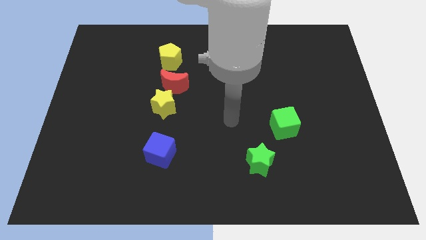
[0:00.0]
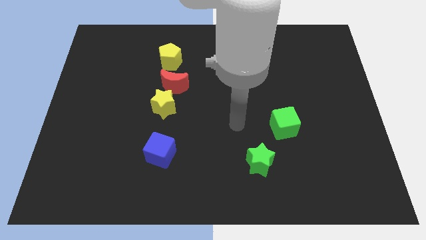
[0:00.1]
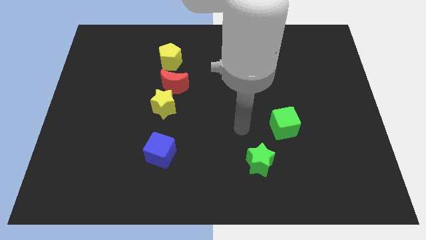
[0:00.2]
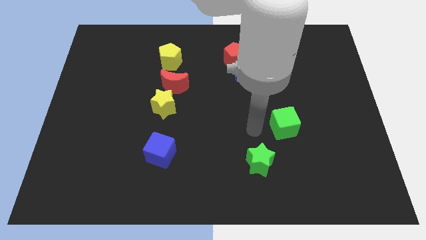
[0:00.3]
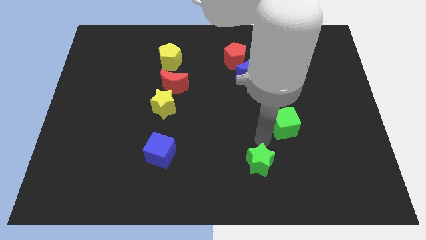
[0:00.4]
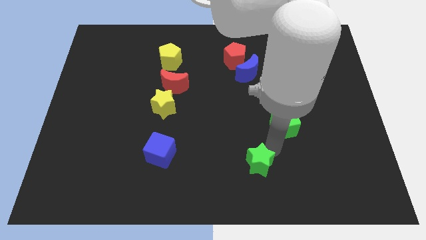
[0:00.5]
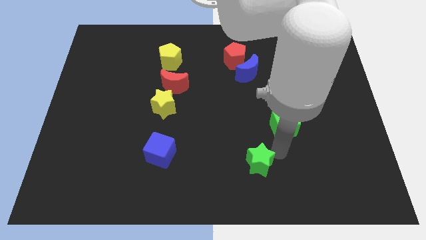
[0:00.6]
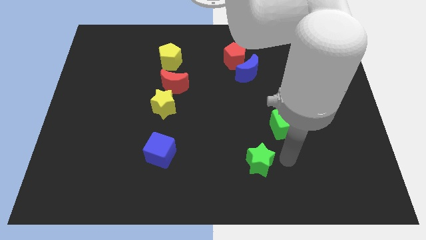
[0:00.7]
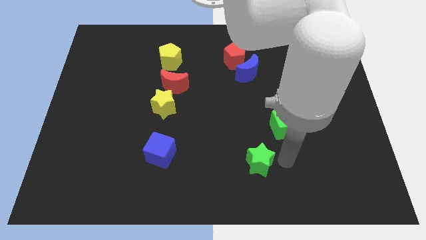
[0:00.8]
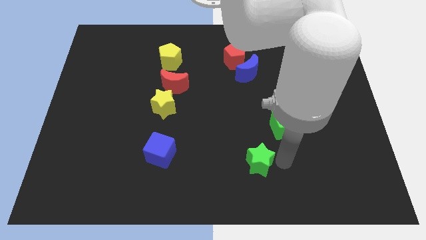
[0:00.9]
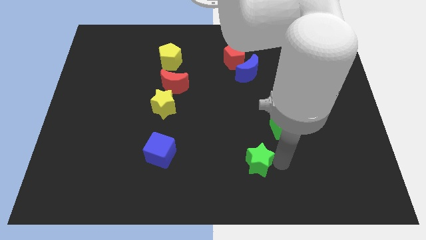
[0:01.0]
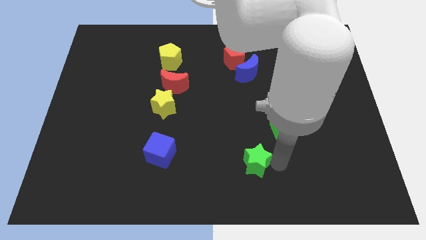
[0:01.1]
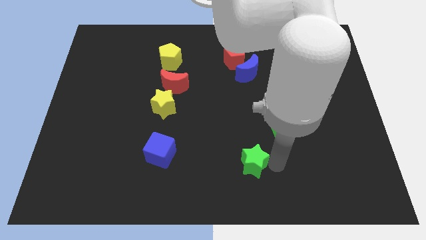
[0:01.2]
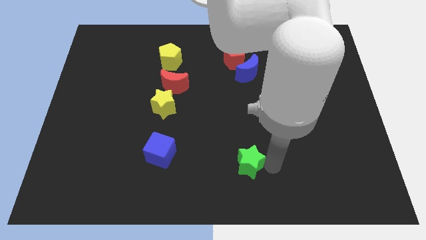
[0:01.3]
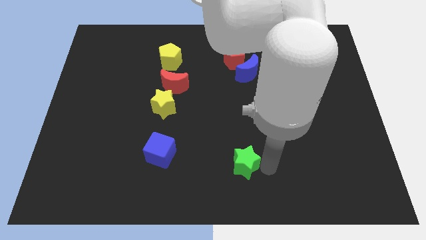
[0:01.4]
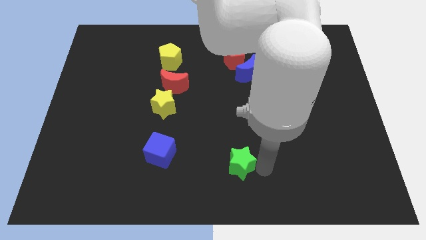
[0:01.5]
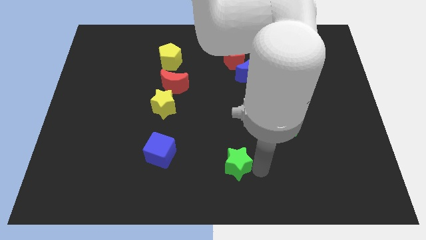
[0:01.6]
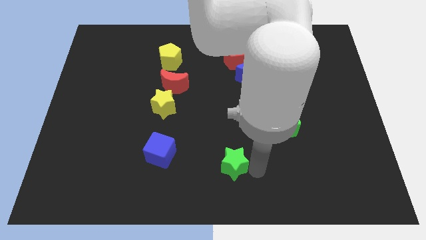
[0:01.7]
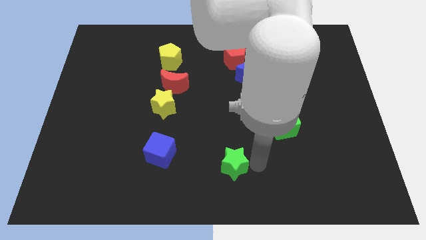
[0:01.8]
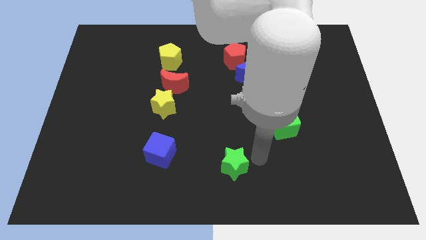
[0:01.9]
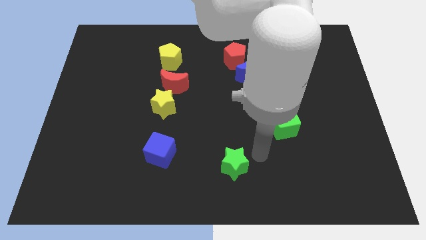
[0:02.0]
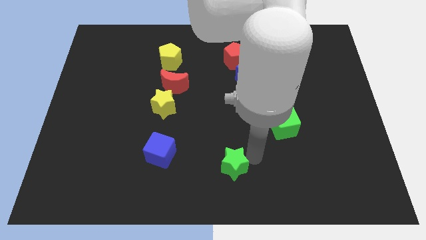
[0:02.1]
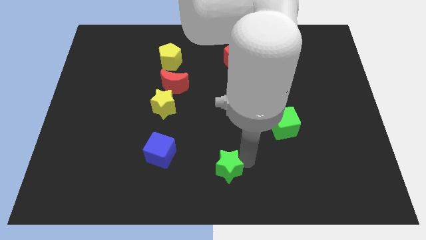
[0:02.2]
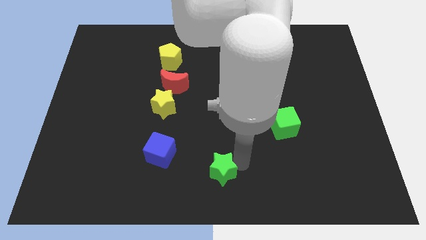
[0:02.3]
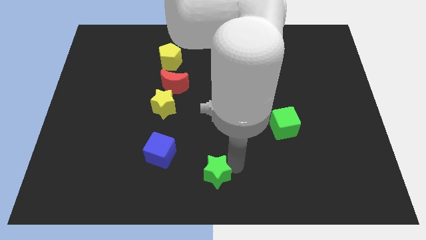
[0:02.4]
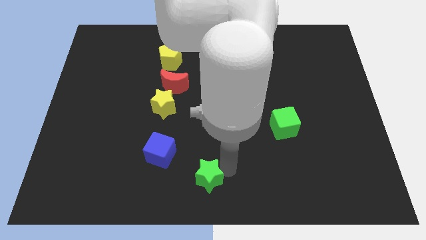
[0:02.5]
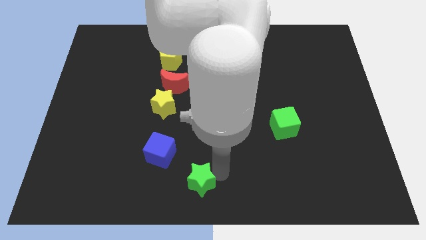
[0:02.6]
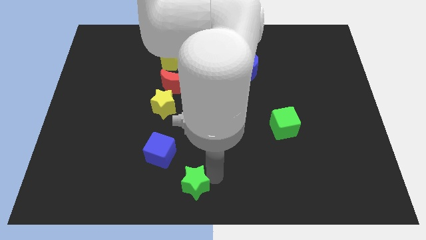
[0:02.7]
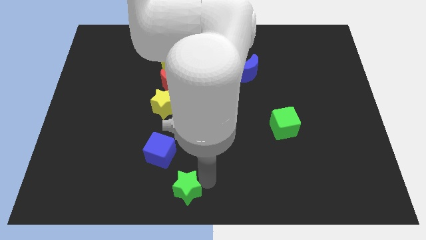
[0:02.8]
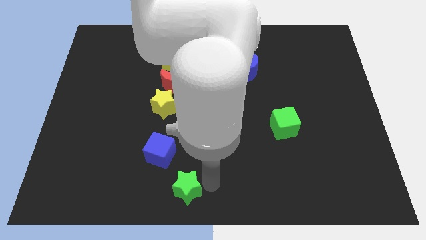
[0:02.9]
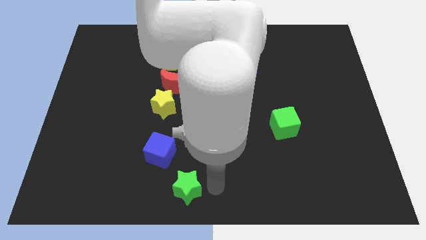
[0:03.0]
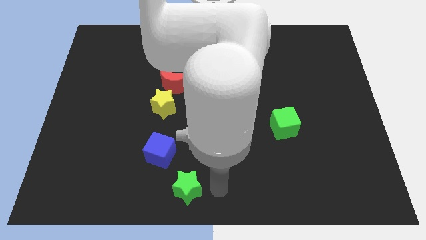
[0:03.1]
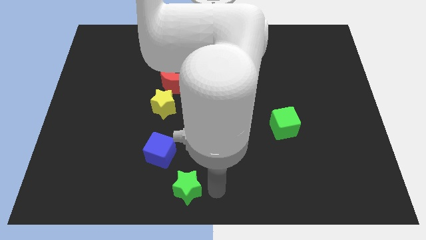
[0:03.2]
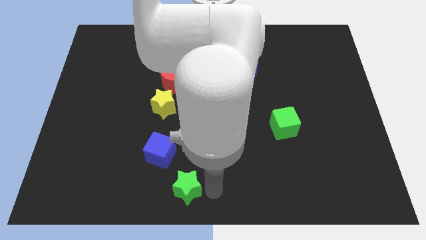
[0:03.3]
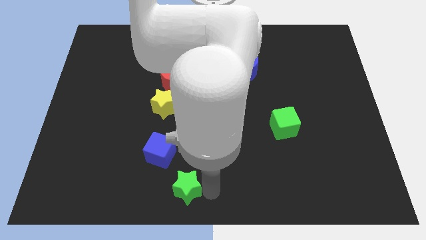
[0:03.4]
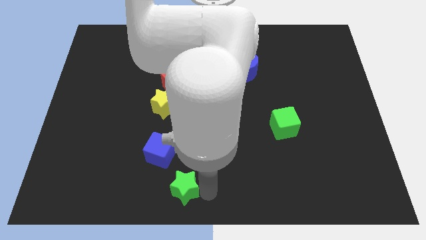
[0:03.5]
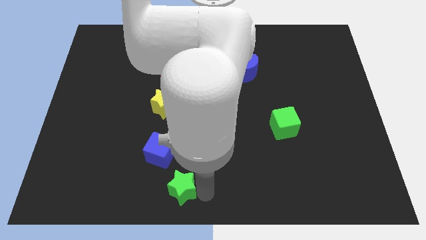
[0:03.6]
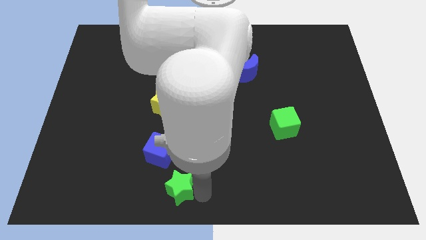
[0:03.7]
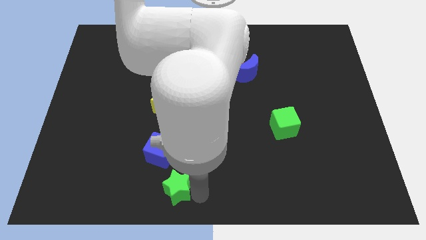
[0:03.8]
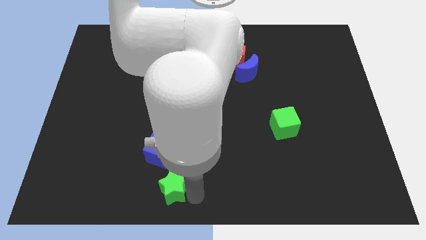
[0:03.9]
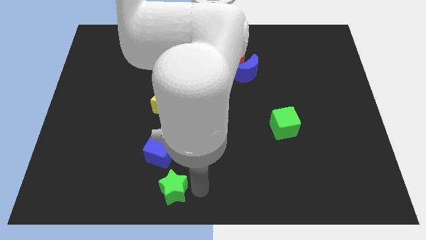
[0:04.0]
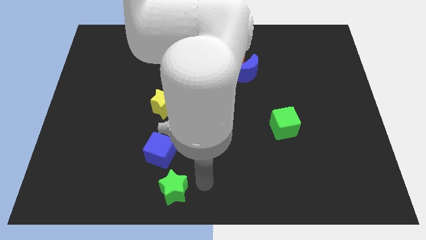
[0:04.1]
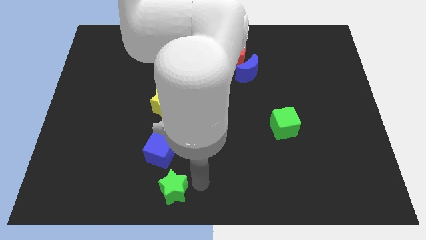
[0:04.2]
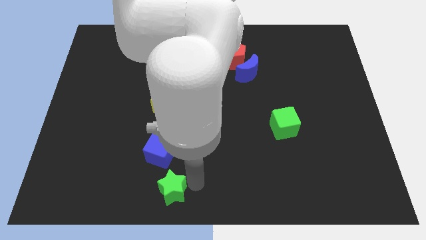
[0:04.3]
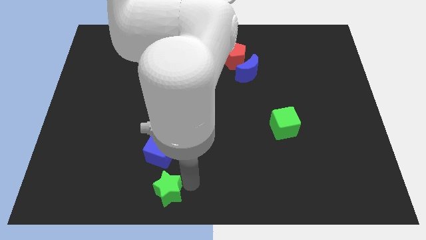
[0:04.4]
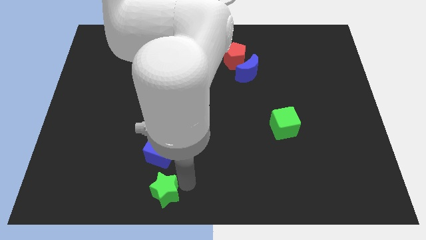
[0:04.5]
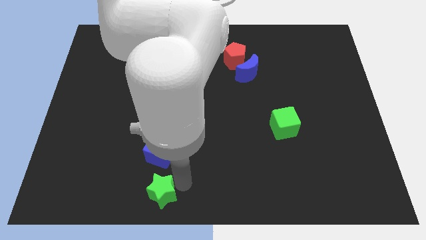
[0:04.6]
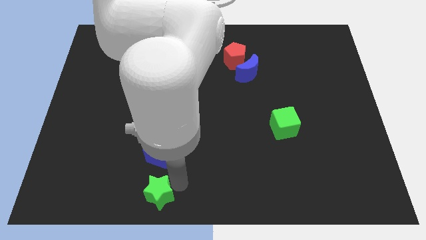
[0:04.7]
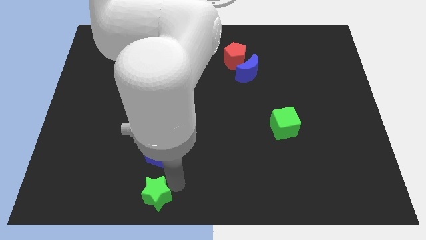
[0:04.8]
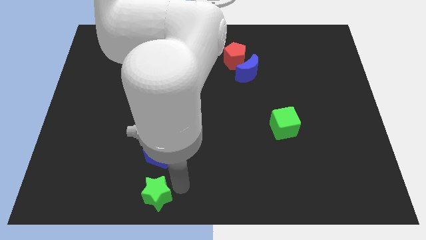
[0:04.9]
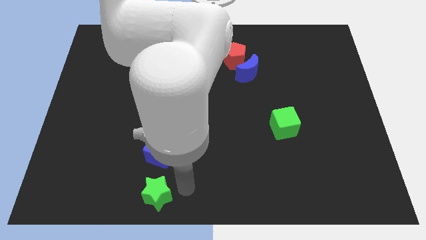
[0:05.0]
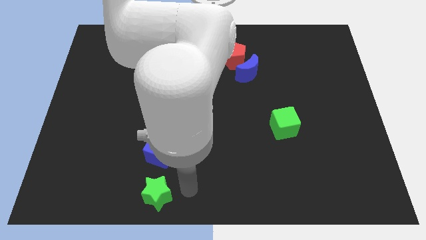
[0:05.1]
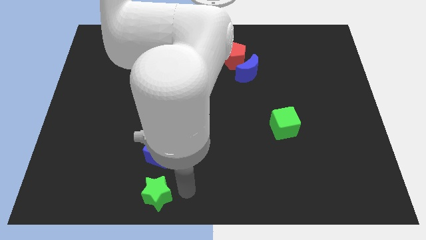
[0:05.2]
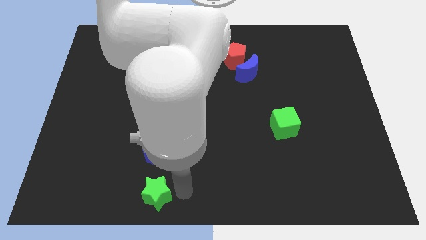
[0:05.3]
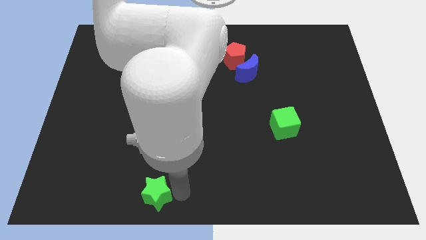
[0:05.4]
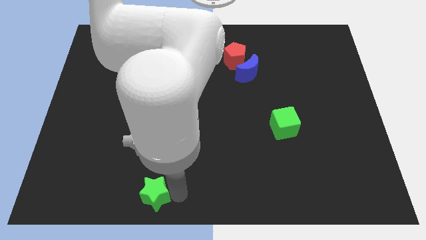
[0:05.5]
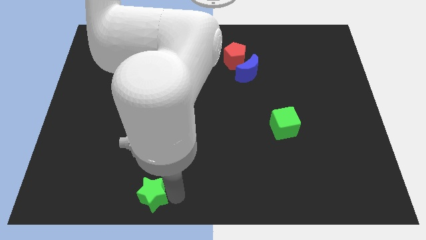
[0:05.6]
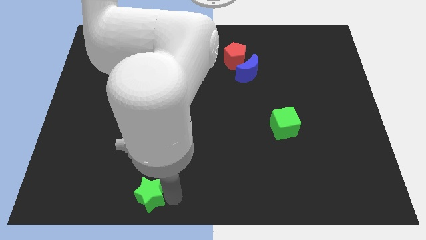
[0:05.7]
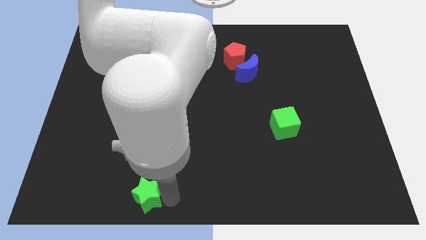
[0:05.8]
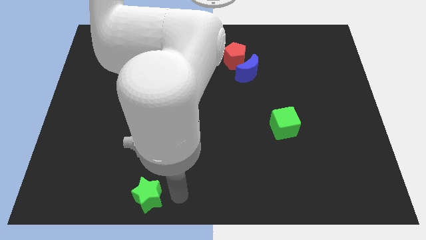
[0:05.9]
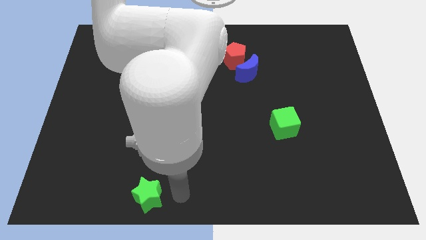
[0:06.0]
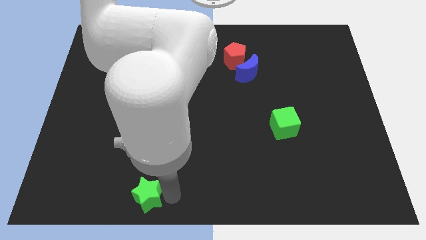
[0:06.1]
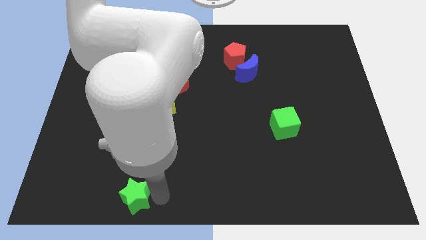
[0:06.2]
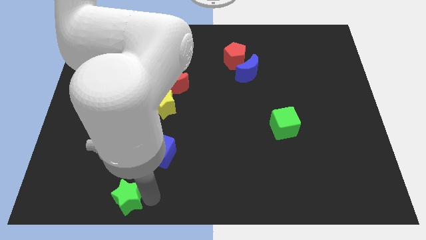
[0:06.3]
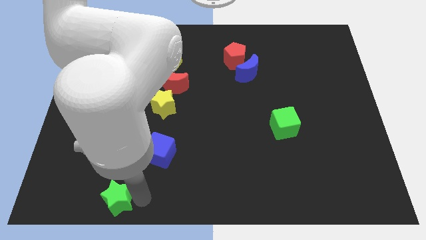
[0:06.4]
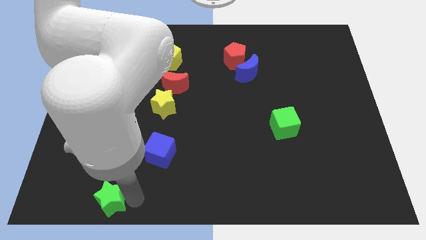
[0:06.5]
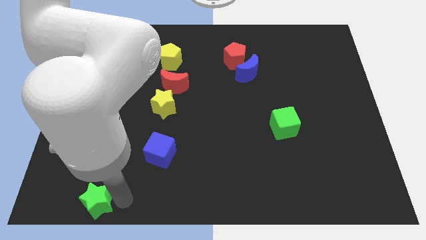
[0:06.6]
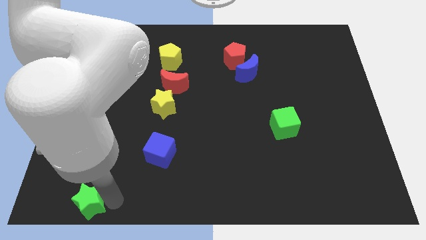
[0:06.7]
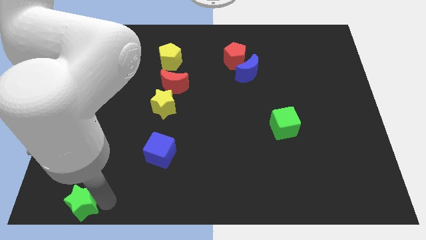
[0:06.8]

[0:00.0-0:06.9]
put the green star to the bottom left
